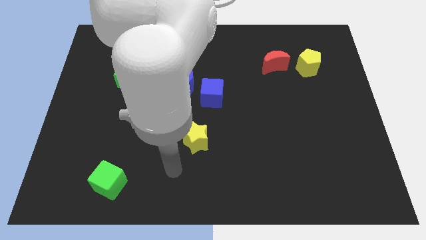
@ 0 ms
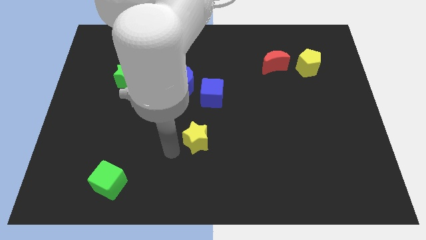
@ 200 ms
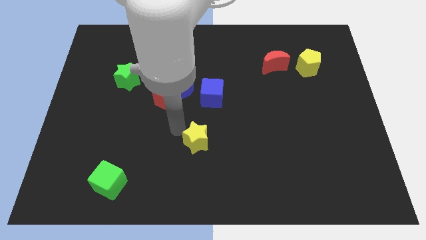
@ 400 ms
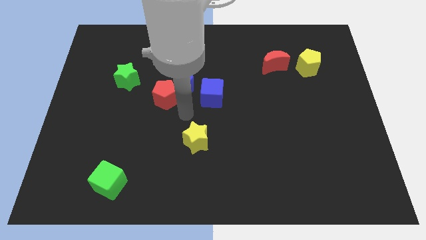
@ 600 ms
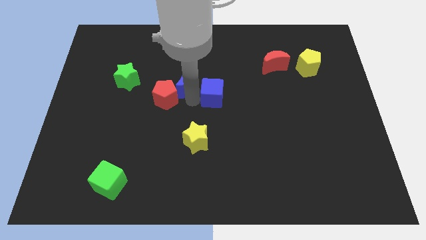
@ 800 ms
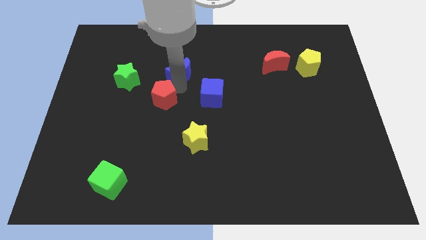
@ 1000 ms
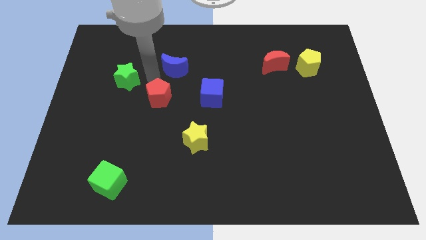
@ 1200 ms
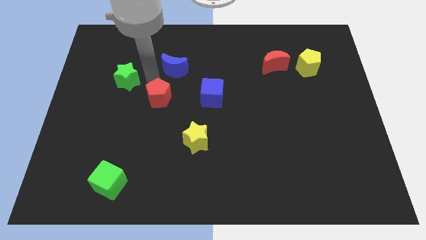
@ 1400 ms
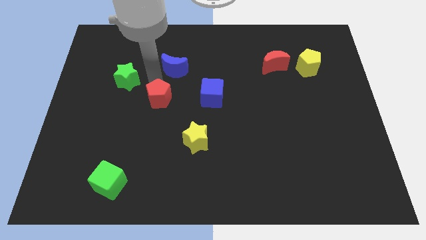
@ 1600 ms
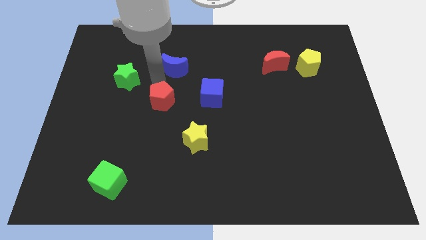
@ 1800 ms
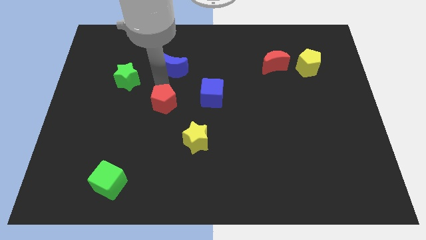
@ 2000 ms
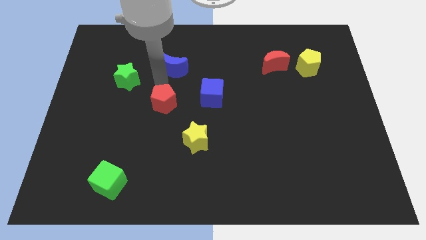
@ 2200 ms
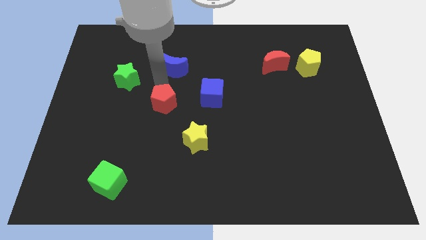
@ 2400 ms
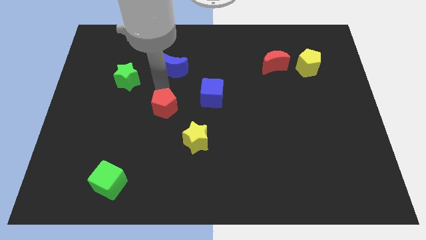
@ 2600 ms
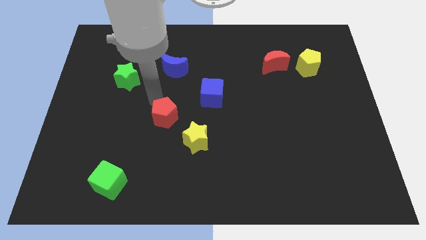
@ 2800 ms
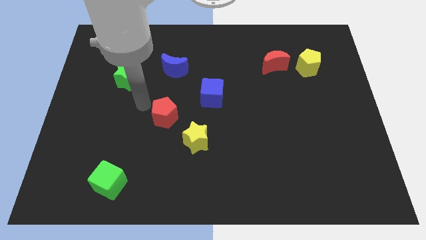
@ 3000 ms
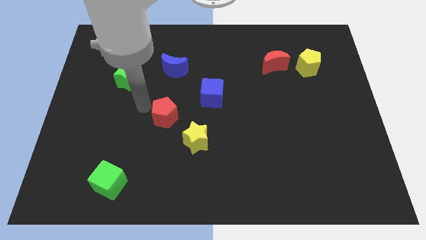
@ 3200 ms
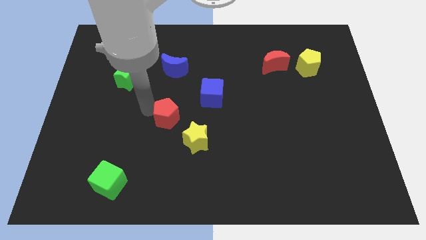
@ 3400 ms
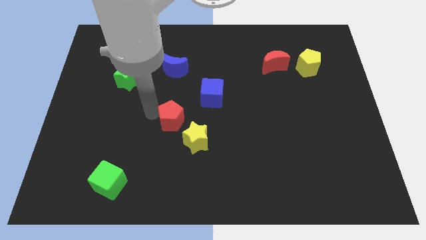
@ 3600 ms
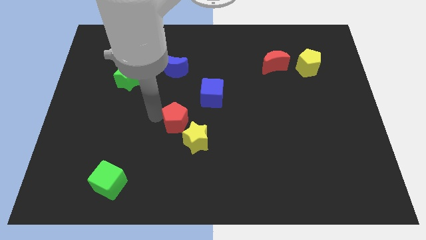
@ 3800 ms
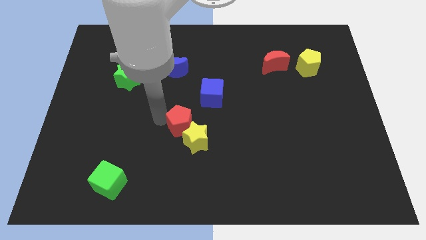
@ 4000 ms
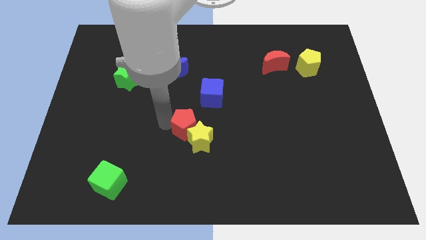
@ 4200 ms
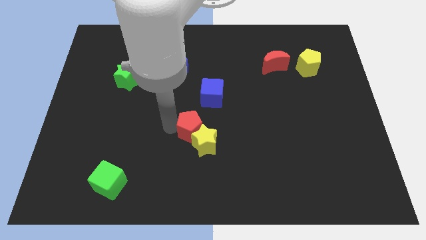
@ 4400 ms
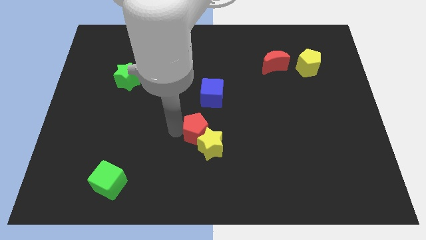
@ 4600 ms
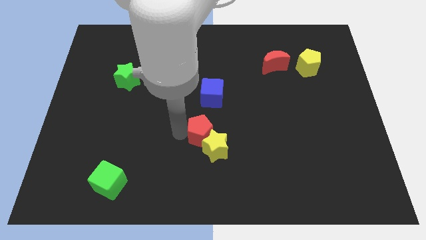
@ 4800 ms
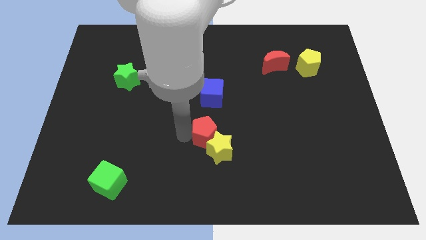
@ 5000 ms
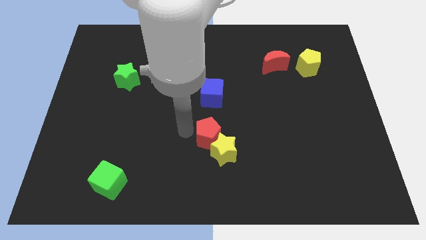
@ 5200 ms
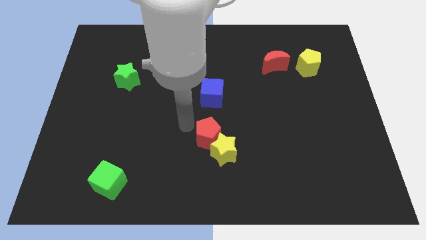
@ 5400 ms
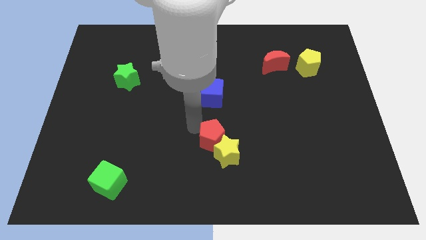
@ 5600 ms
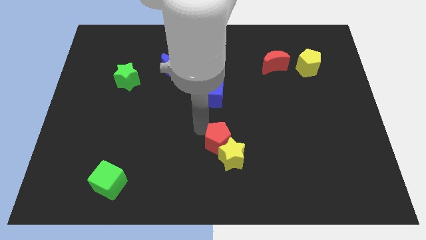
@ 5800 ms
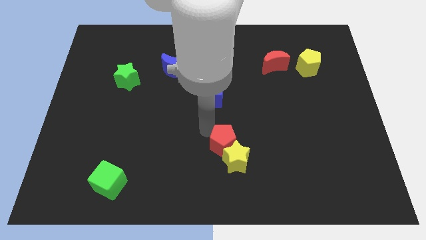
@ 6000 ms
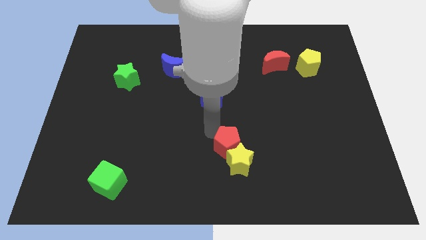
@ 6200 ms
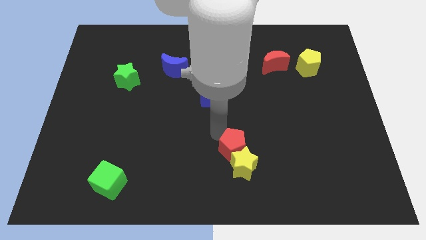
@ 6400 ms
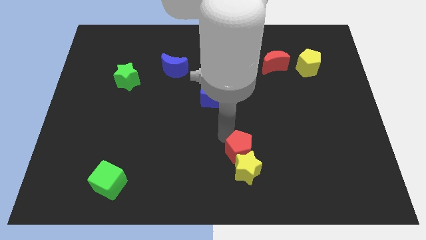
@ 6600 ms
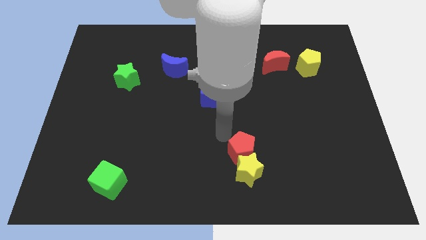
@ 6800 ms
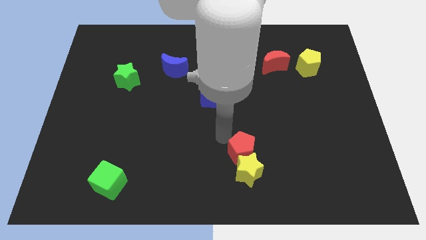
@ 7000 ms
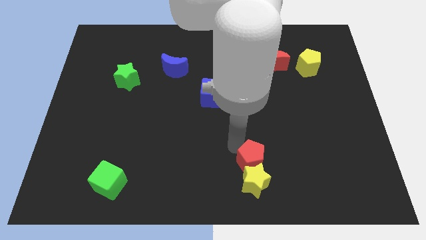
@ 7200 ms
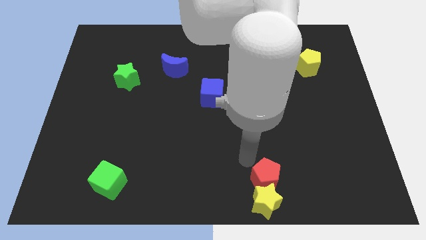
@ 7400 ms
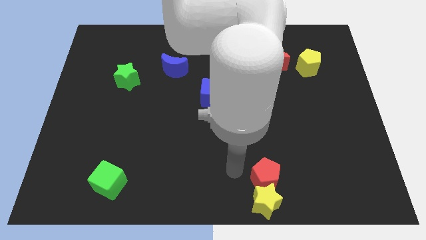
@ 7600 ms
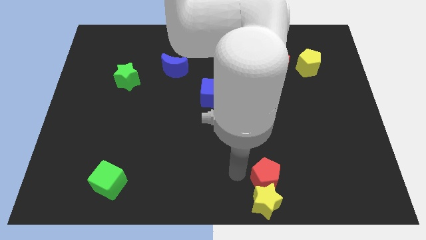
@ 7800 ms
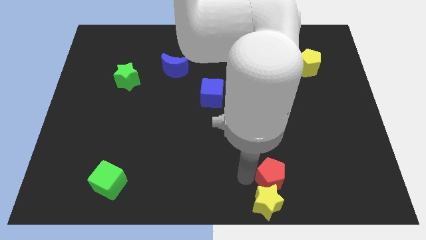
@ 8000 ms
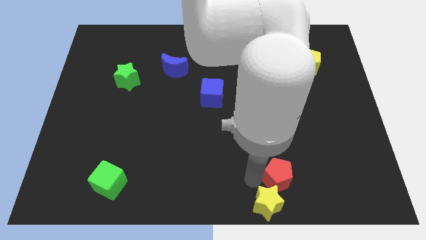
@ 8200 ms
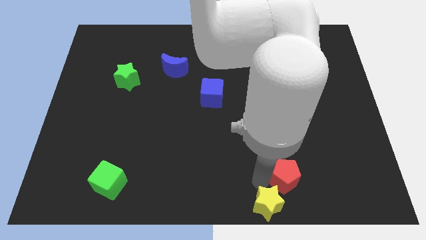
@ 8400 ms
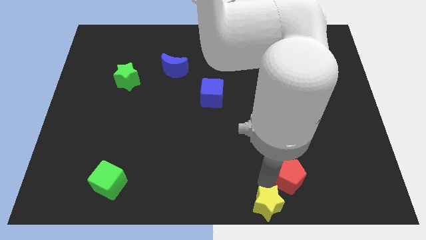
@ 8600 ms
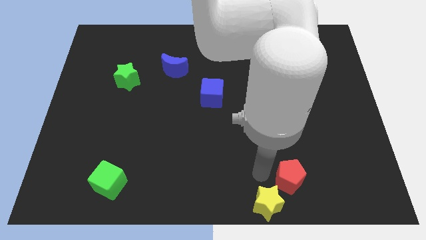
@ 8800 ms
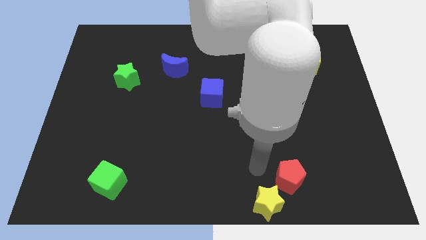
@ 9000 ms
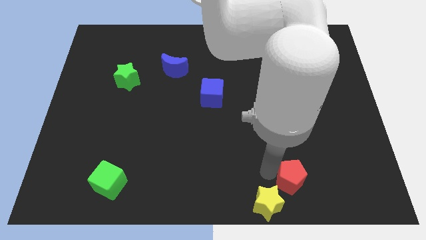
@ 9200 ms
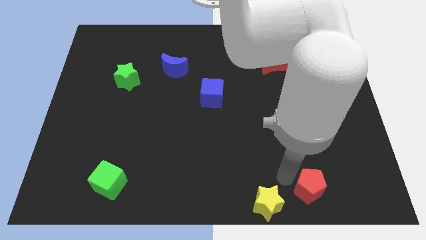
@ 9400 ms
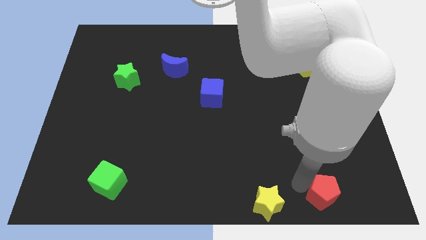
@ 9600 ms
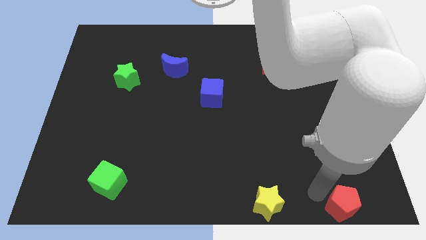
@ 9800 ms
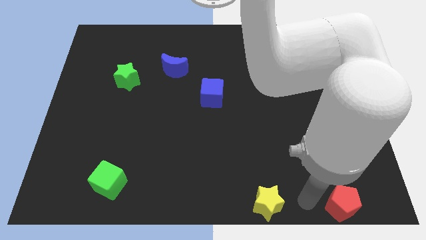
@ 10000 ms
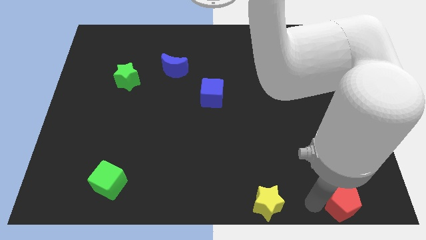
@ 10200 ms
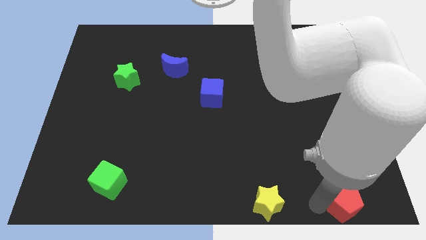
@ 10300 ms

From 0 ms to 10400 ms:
slide the red pentagon to the bottom right of the board

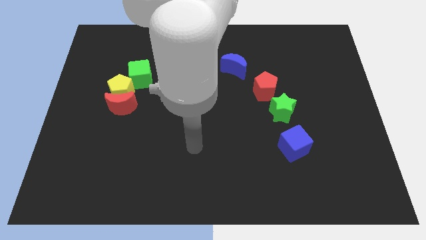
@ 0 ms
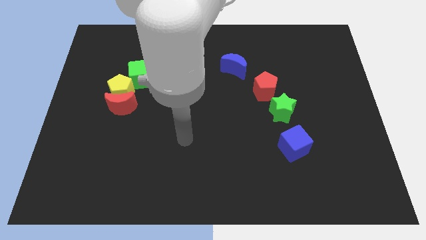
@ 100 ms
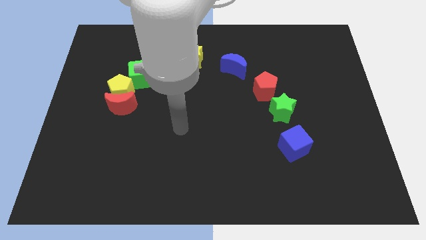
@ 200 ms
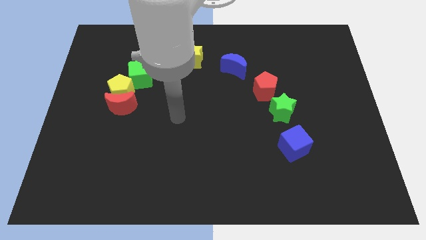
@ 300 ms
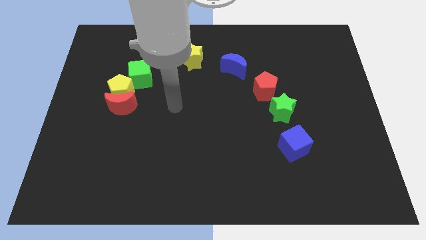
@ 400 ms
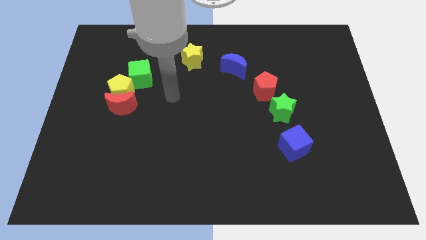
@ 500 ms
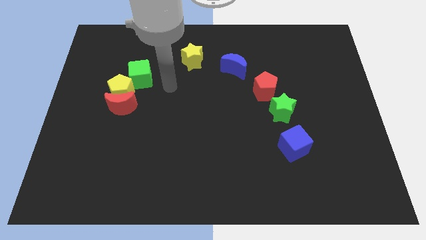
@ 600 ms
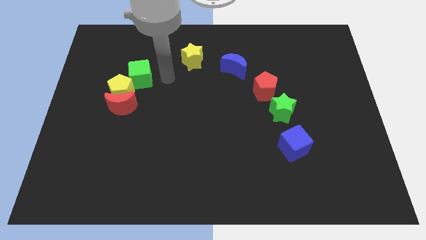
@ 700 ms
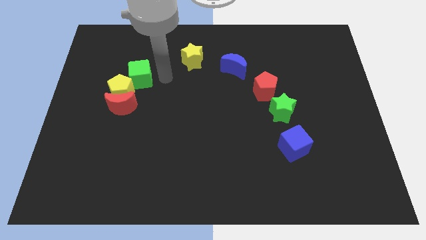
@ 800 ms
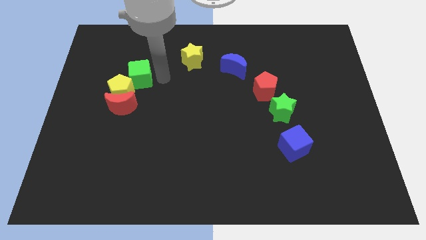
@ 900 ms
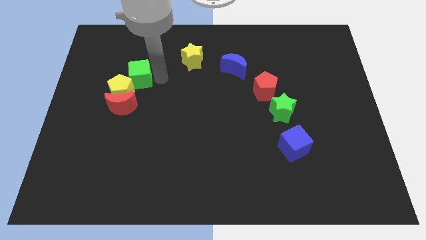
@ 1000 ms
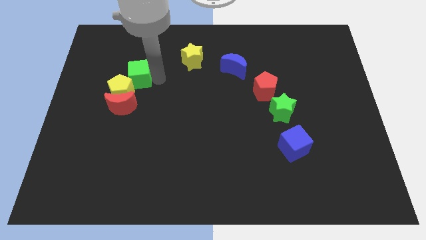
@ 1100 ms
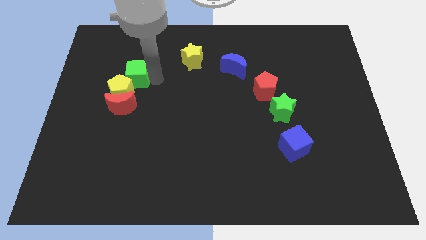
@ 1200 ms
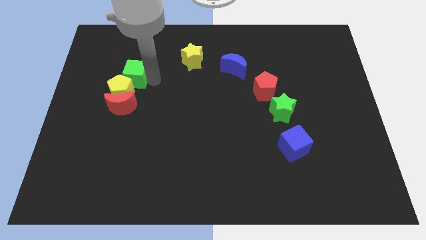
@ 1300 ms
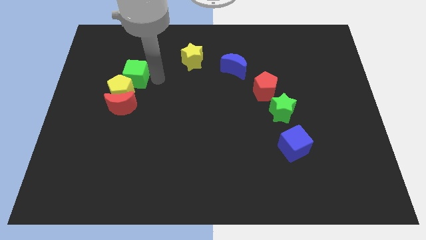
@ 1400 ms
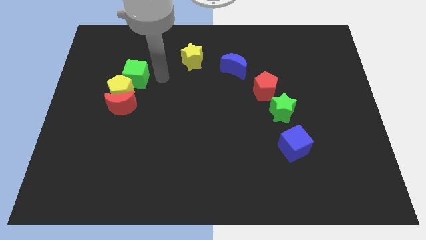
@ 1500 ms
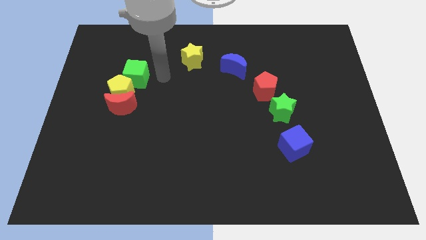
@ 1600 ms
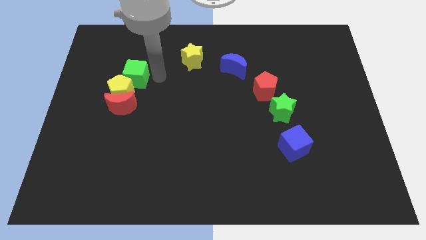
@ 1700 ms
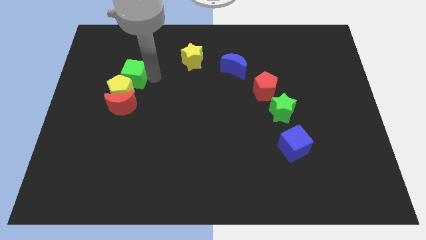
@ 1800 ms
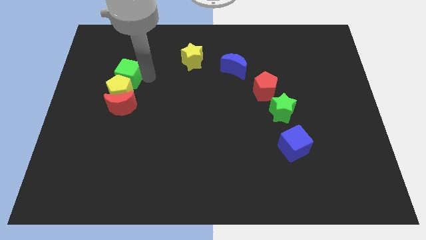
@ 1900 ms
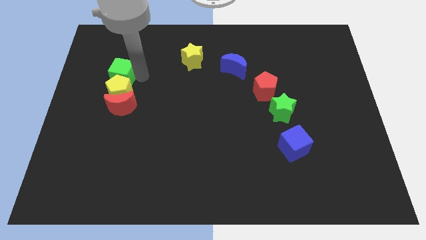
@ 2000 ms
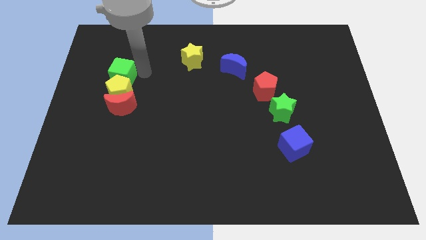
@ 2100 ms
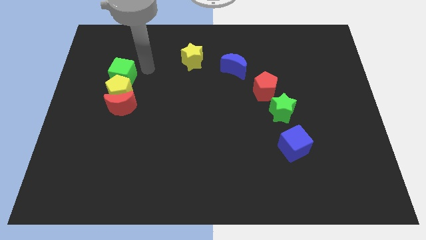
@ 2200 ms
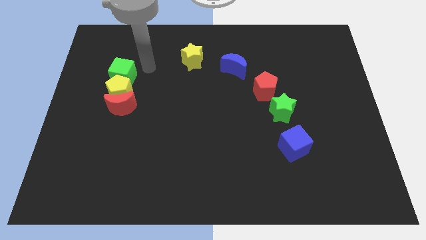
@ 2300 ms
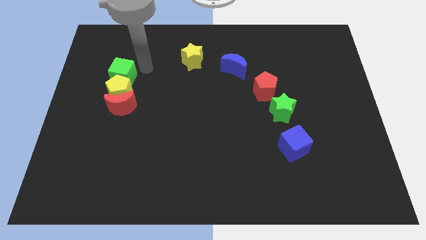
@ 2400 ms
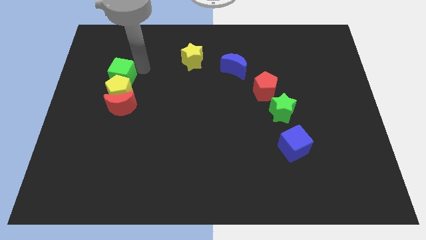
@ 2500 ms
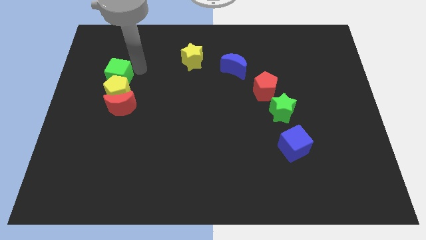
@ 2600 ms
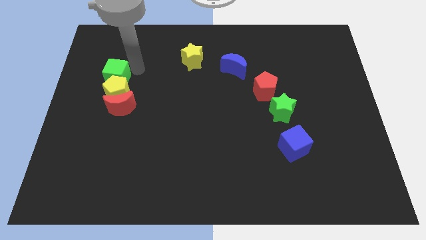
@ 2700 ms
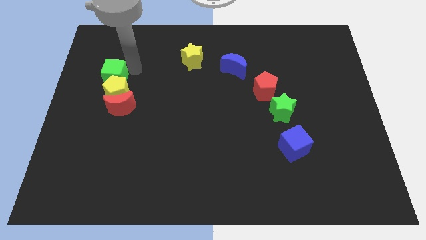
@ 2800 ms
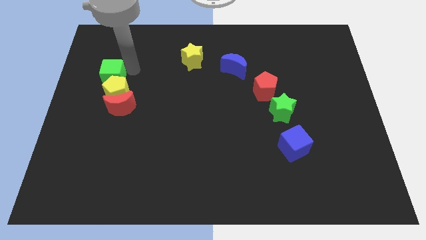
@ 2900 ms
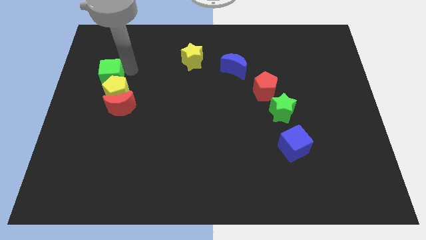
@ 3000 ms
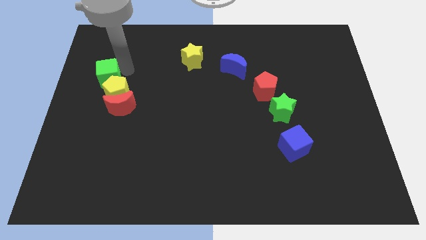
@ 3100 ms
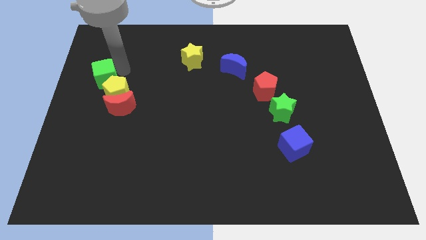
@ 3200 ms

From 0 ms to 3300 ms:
push the green cube to the center left
